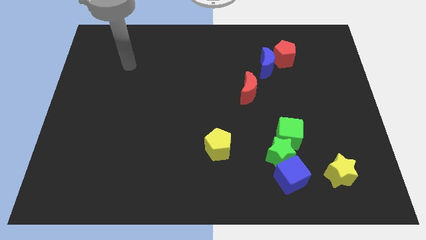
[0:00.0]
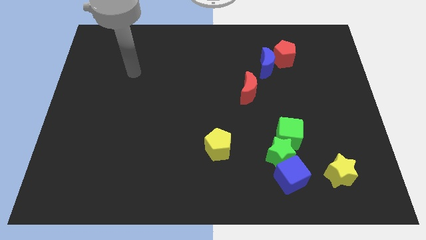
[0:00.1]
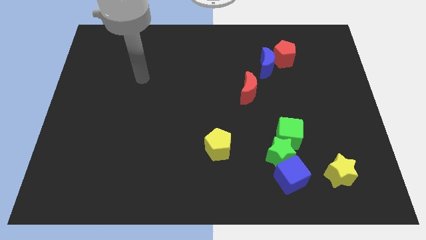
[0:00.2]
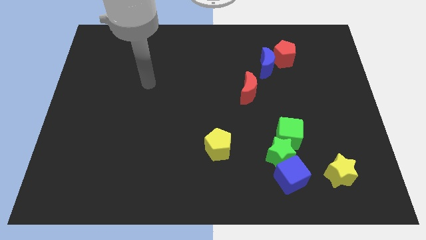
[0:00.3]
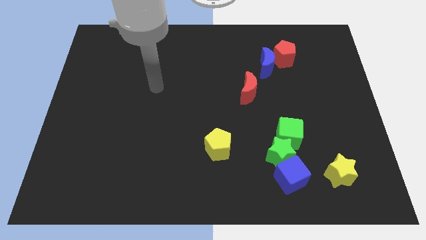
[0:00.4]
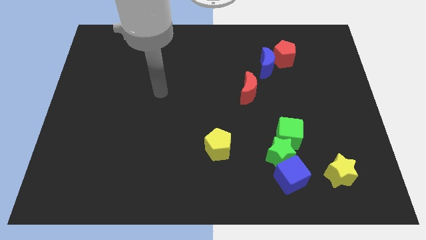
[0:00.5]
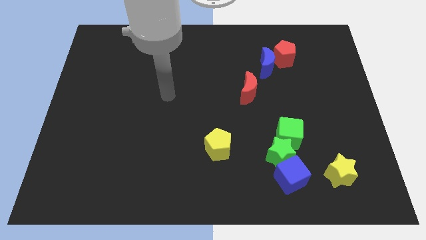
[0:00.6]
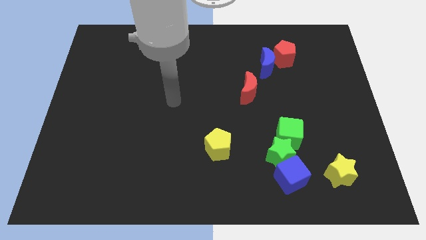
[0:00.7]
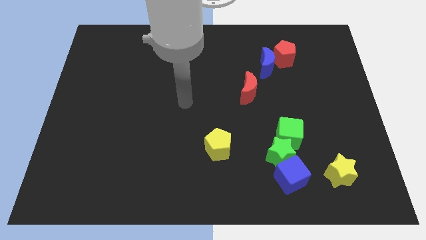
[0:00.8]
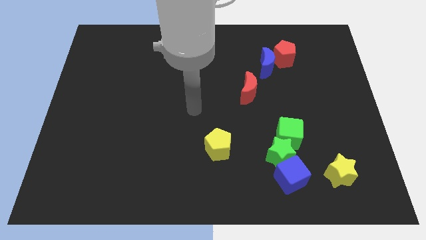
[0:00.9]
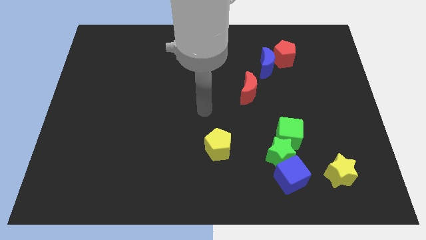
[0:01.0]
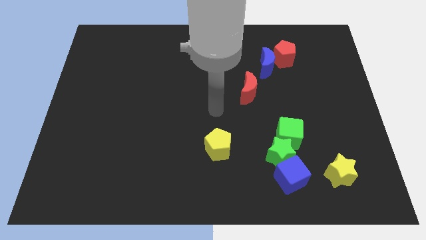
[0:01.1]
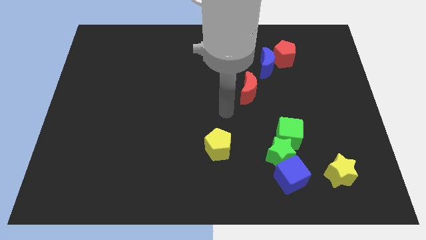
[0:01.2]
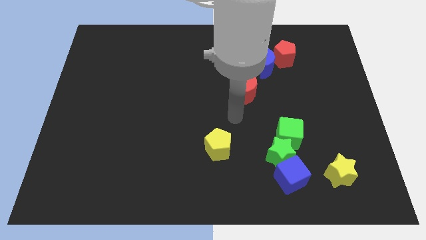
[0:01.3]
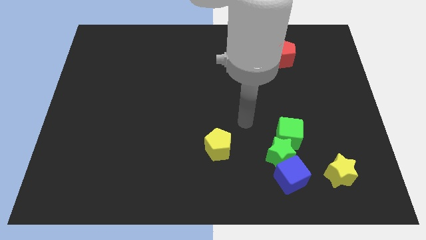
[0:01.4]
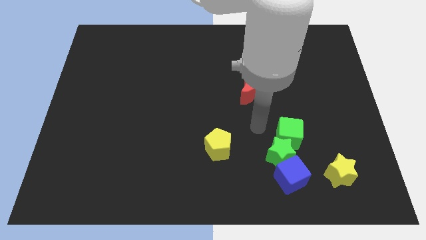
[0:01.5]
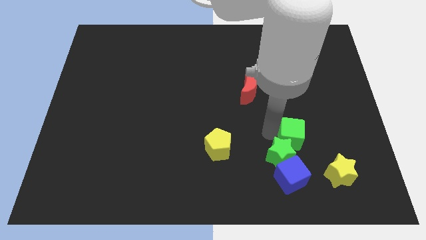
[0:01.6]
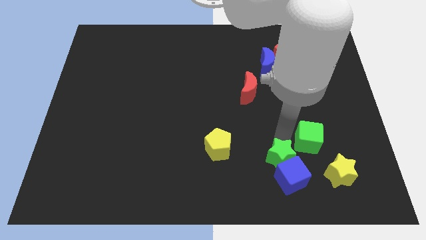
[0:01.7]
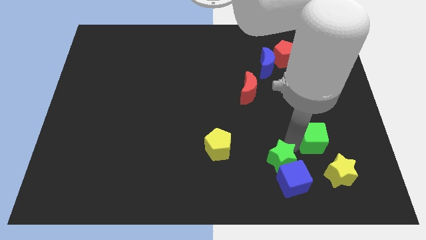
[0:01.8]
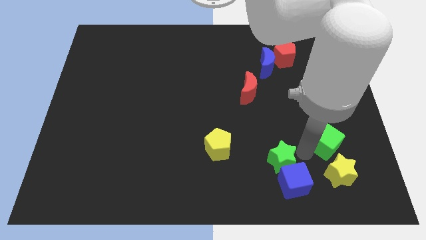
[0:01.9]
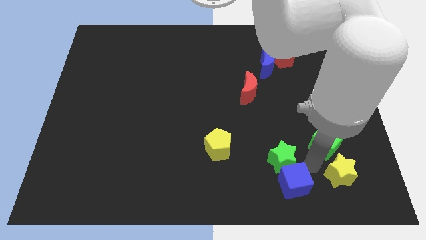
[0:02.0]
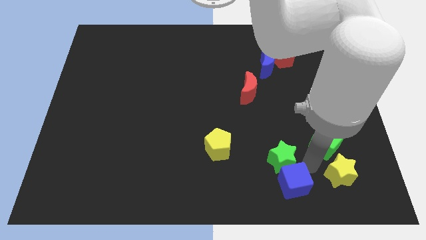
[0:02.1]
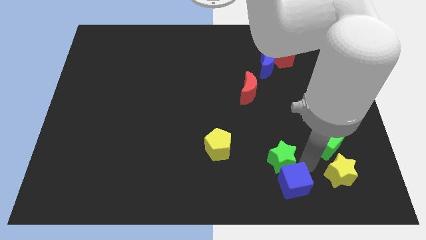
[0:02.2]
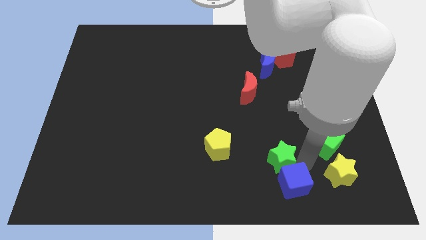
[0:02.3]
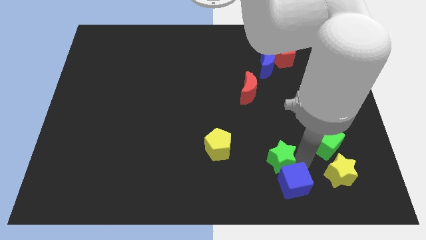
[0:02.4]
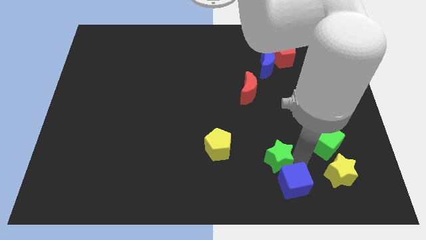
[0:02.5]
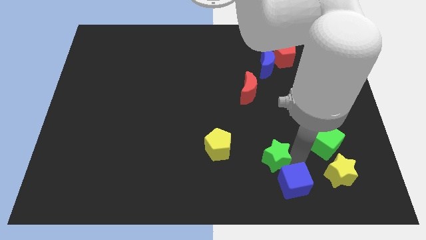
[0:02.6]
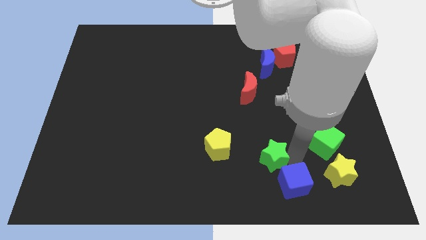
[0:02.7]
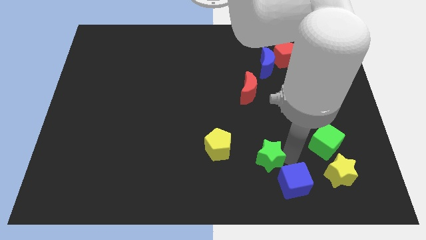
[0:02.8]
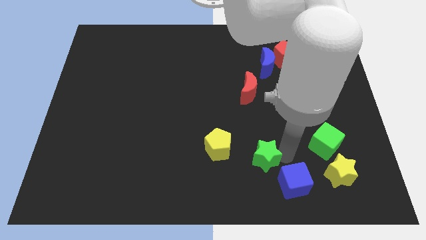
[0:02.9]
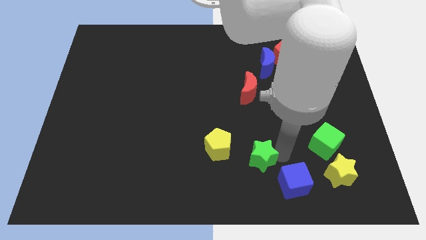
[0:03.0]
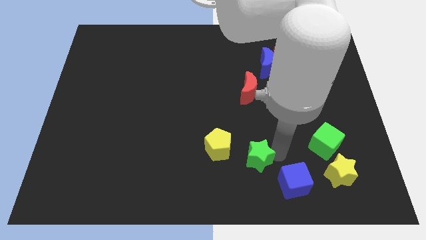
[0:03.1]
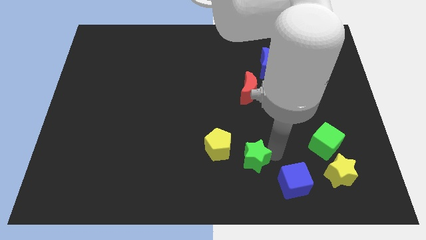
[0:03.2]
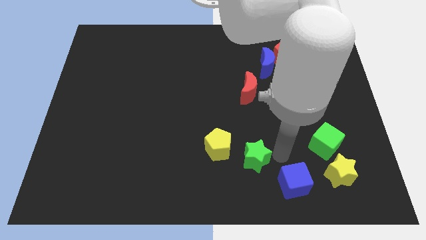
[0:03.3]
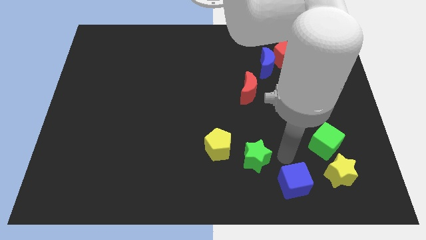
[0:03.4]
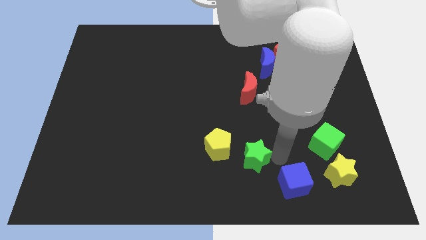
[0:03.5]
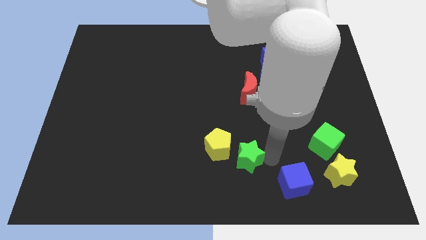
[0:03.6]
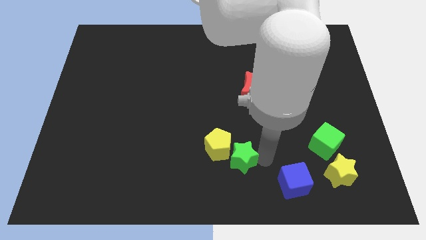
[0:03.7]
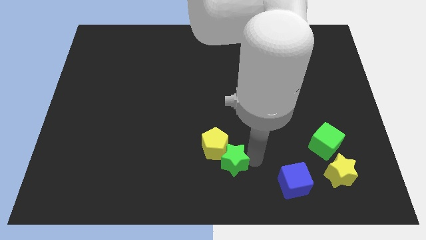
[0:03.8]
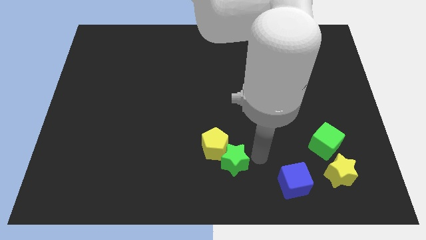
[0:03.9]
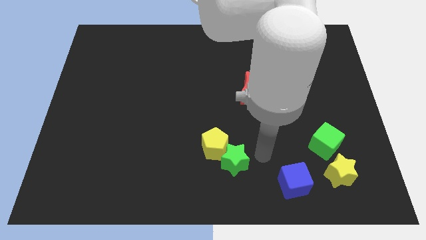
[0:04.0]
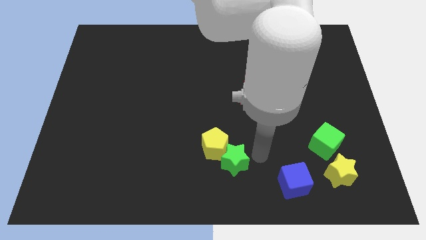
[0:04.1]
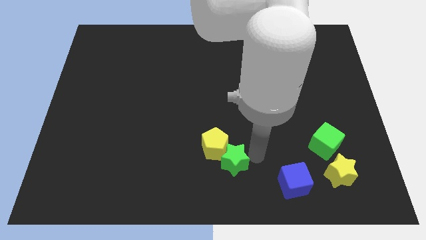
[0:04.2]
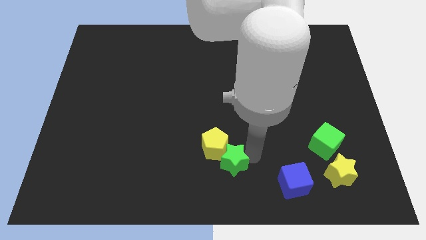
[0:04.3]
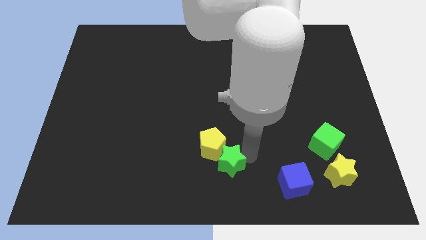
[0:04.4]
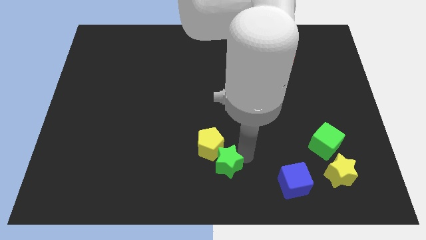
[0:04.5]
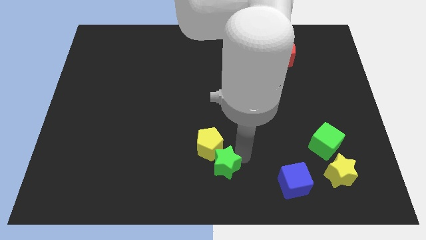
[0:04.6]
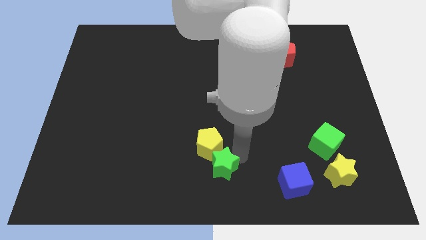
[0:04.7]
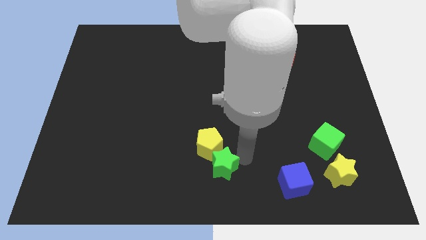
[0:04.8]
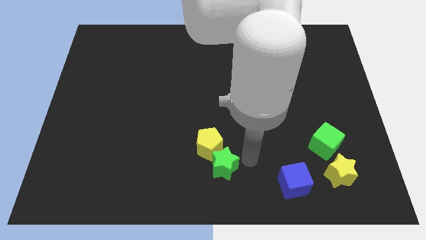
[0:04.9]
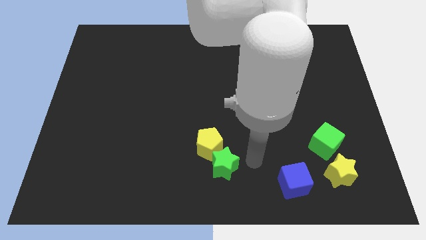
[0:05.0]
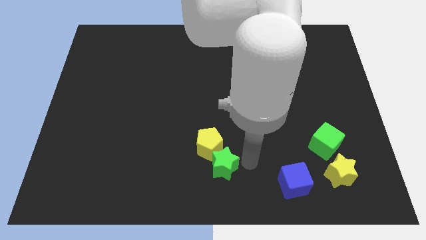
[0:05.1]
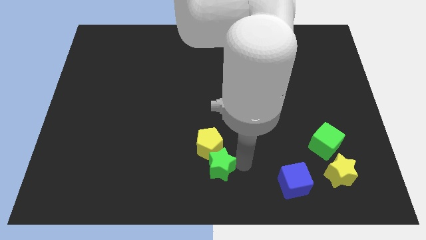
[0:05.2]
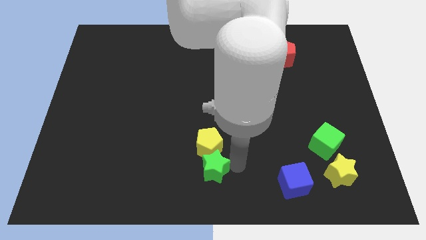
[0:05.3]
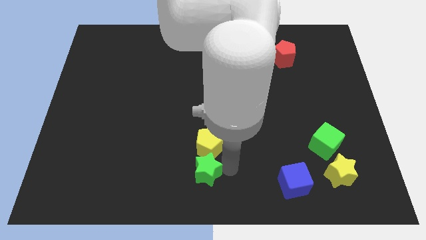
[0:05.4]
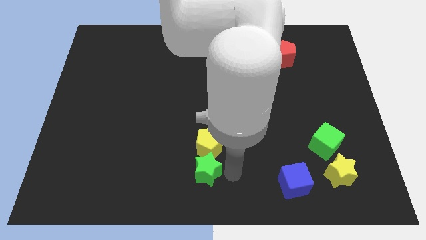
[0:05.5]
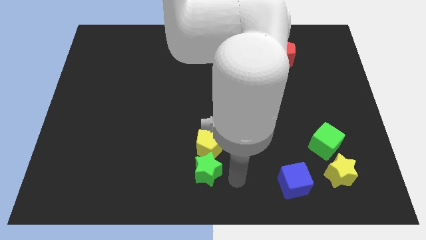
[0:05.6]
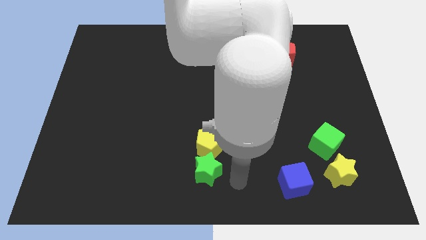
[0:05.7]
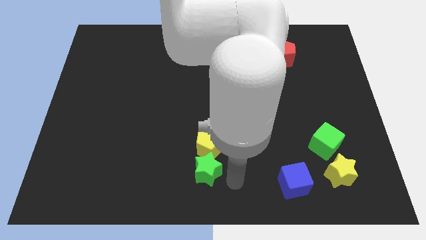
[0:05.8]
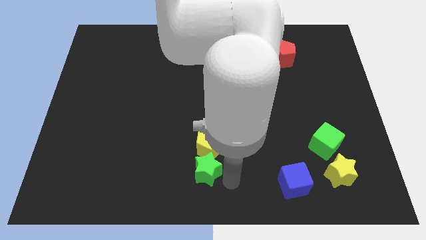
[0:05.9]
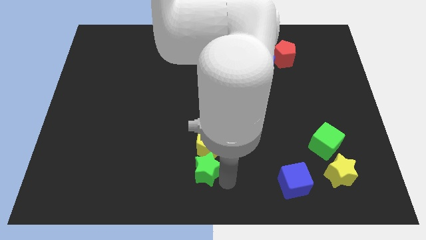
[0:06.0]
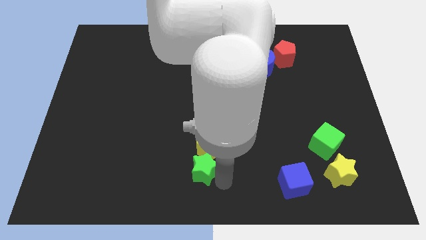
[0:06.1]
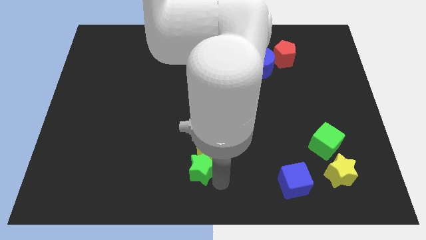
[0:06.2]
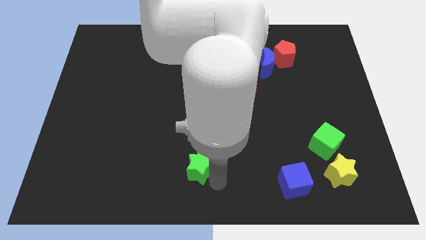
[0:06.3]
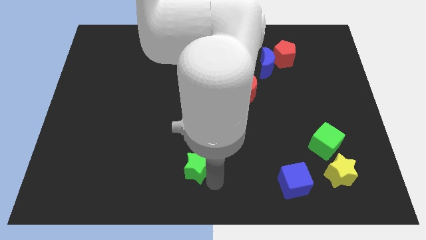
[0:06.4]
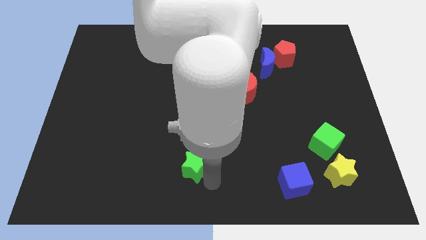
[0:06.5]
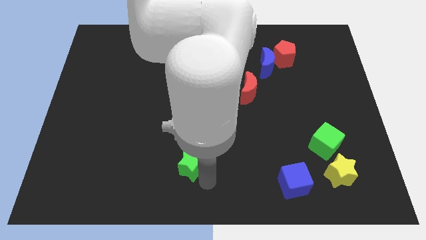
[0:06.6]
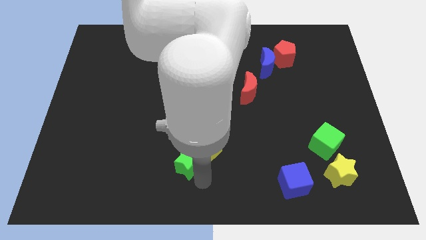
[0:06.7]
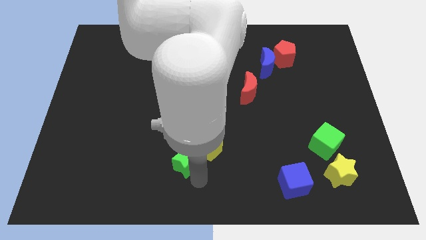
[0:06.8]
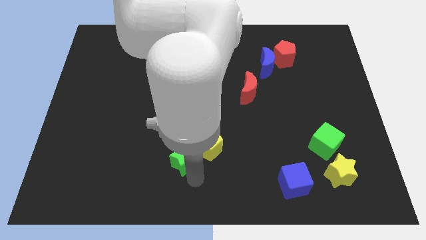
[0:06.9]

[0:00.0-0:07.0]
slide the green star to the left

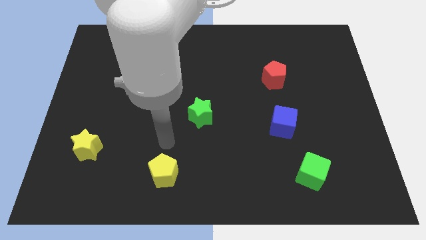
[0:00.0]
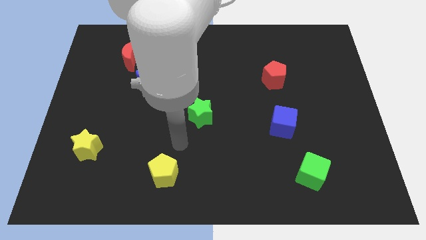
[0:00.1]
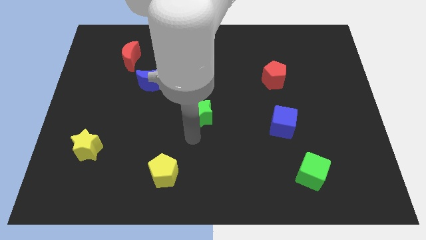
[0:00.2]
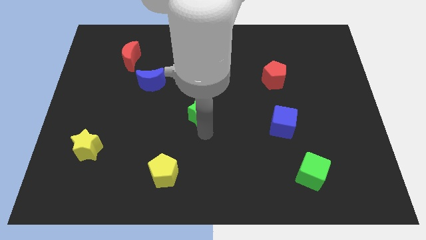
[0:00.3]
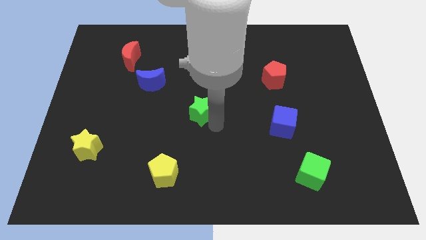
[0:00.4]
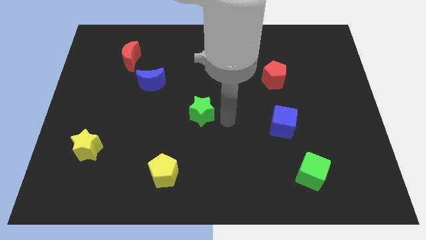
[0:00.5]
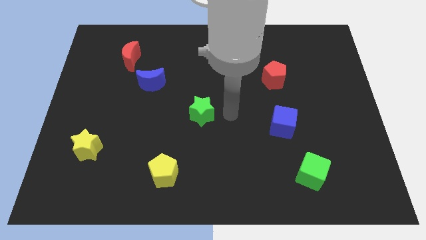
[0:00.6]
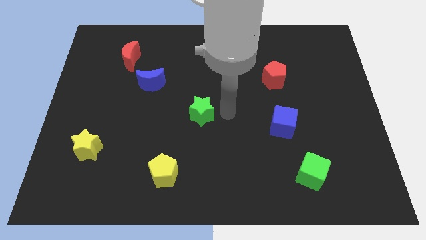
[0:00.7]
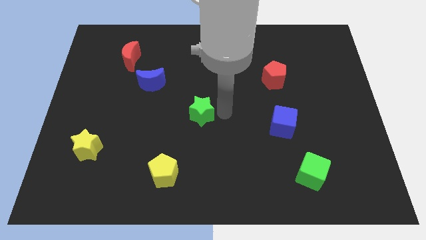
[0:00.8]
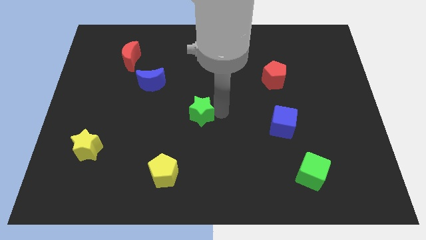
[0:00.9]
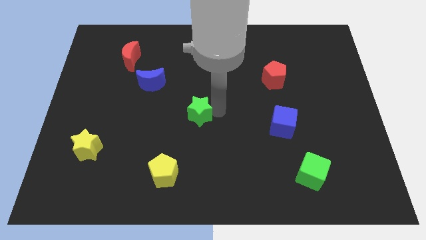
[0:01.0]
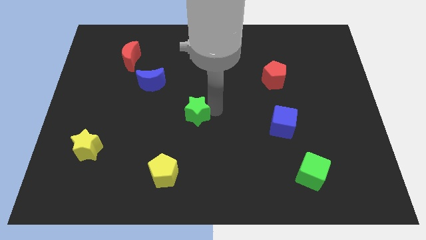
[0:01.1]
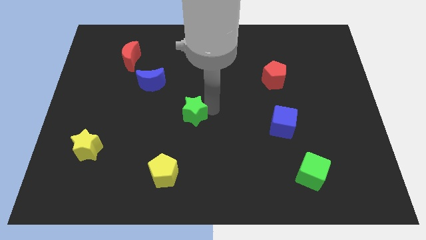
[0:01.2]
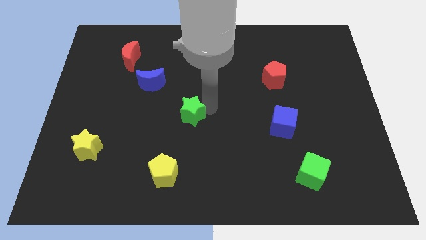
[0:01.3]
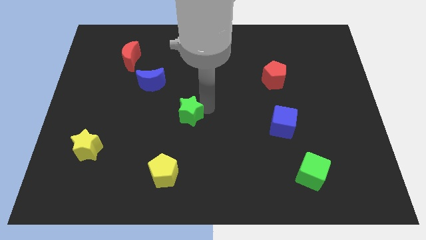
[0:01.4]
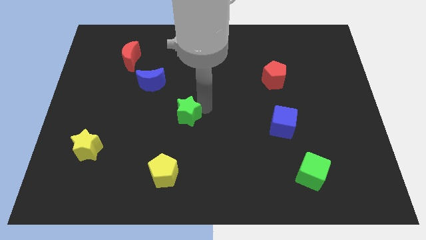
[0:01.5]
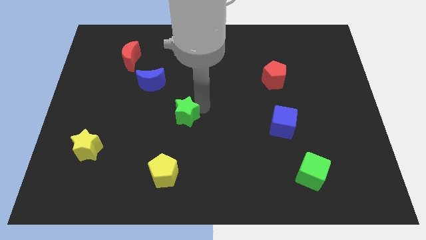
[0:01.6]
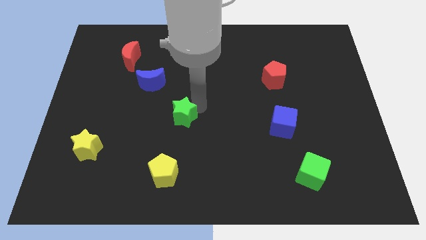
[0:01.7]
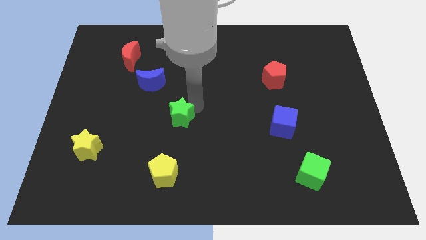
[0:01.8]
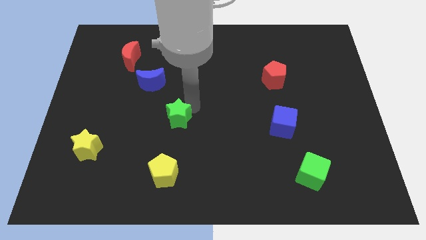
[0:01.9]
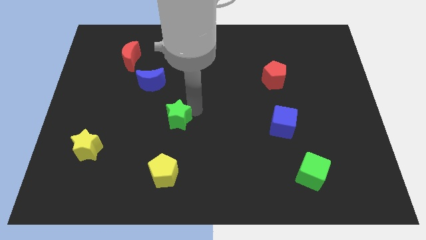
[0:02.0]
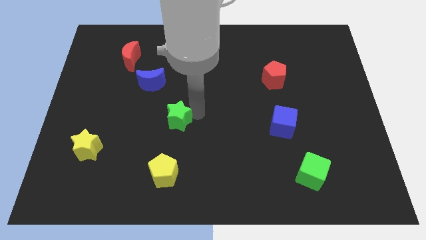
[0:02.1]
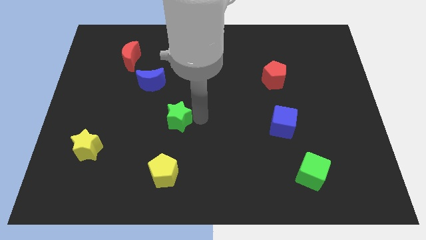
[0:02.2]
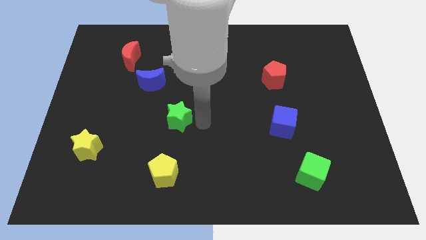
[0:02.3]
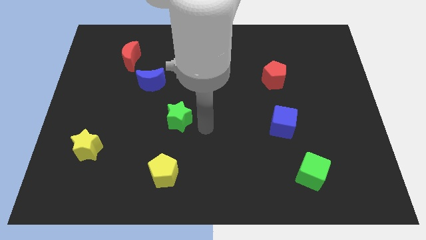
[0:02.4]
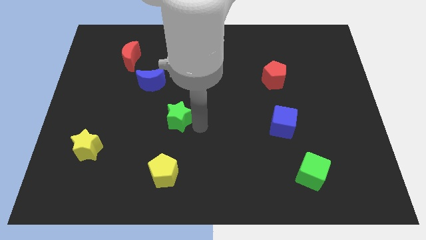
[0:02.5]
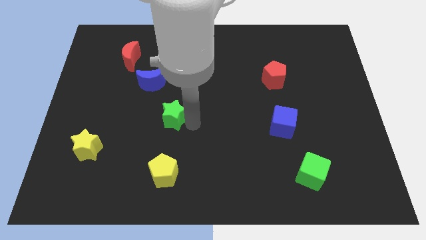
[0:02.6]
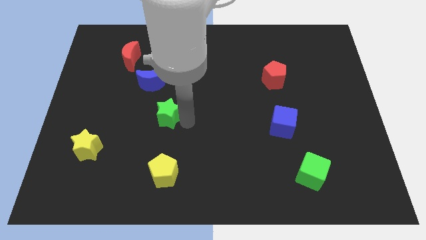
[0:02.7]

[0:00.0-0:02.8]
move the green star somewhat to the left
